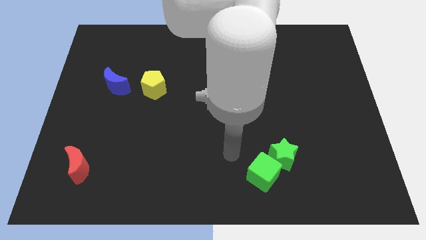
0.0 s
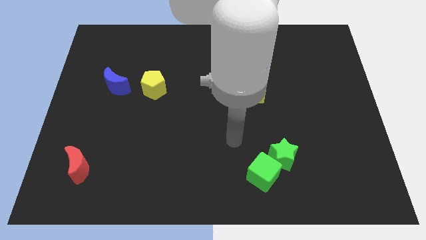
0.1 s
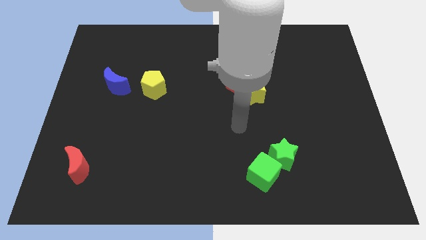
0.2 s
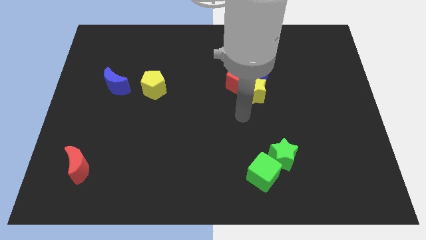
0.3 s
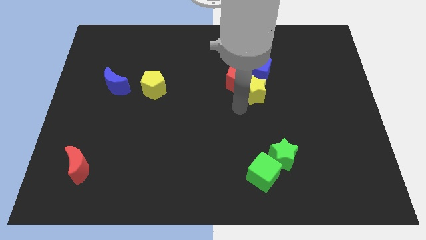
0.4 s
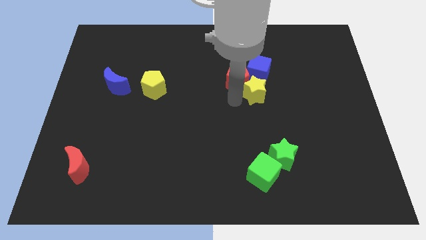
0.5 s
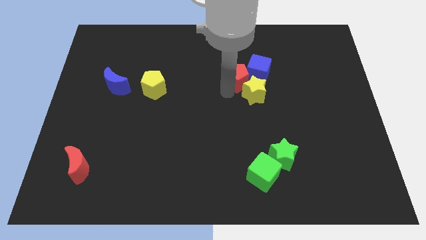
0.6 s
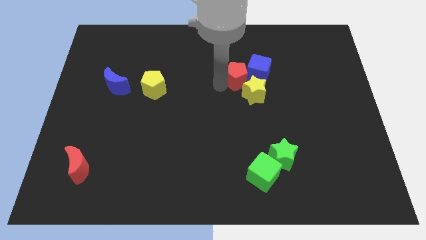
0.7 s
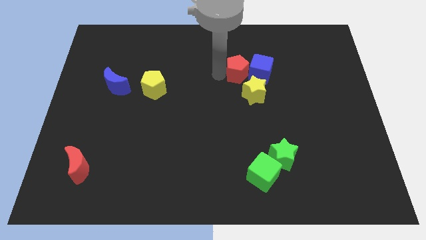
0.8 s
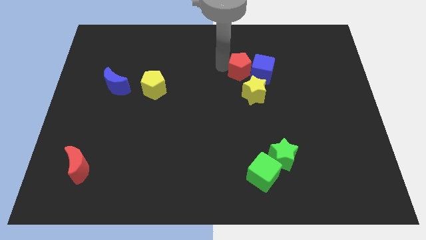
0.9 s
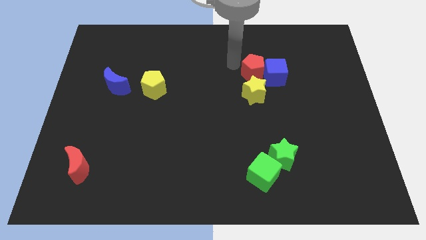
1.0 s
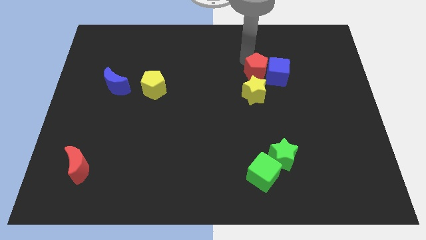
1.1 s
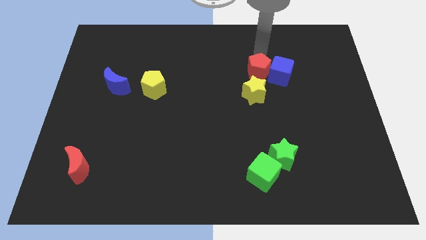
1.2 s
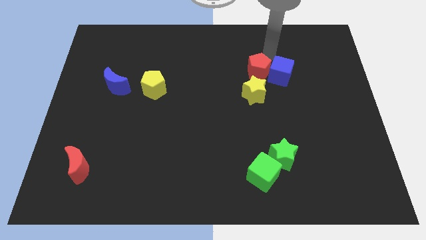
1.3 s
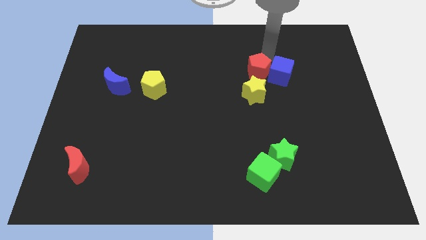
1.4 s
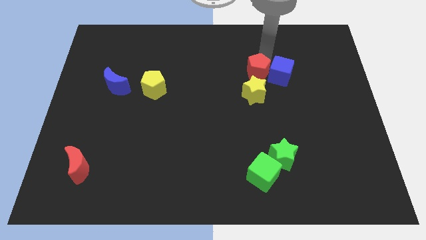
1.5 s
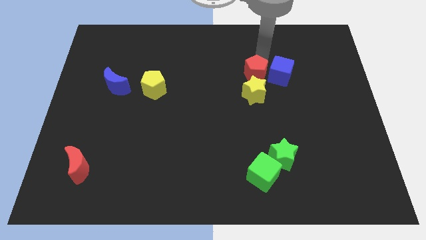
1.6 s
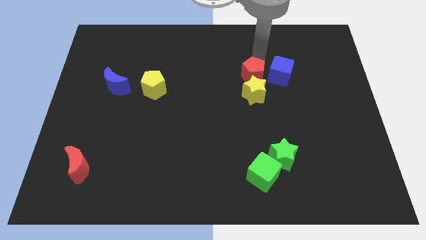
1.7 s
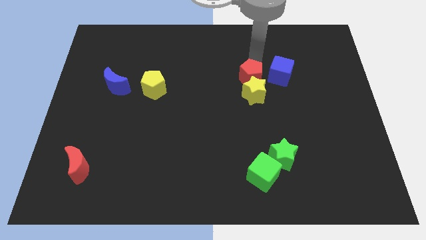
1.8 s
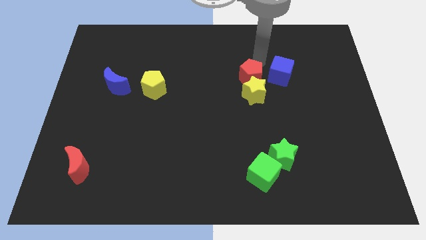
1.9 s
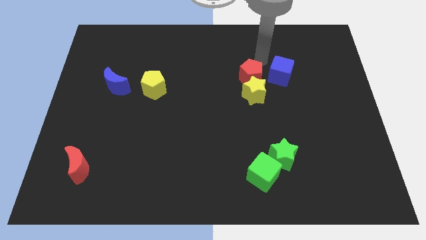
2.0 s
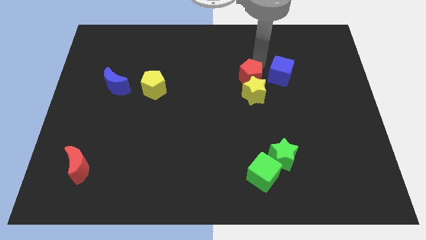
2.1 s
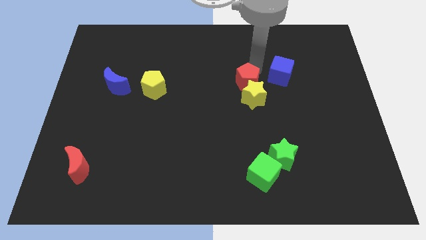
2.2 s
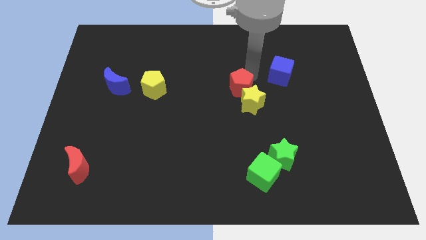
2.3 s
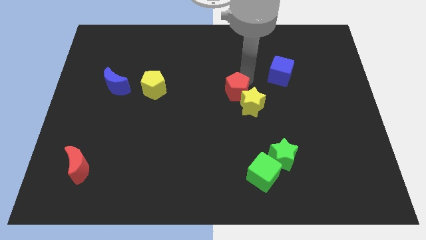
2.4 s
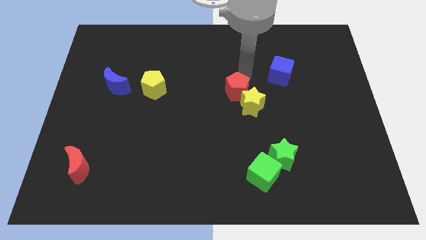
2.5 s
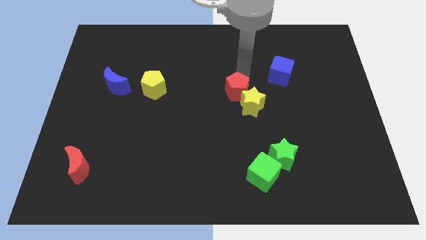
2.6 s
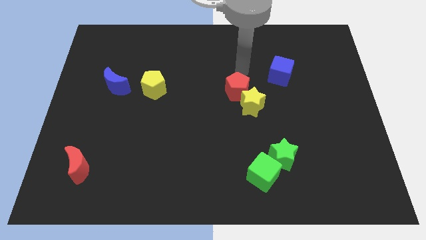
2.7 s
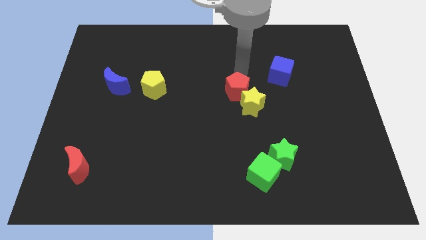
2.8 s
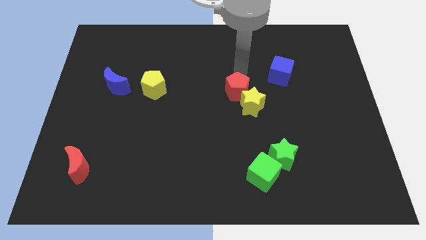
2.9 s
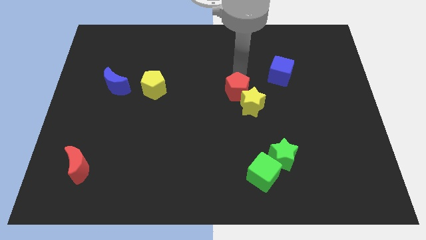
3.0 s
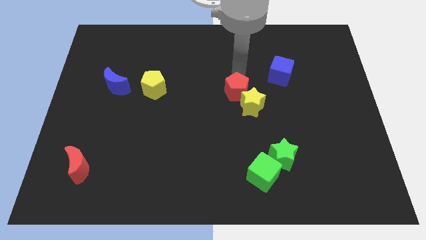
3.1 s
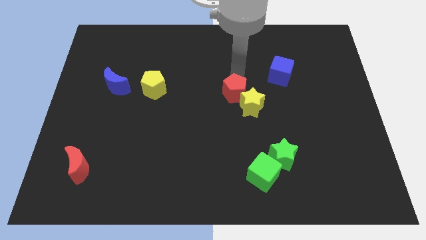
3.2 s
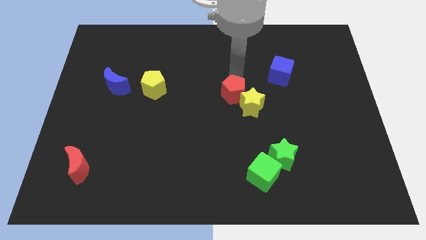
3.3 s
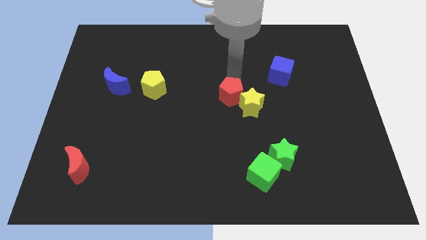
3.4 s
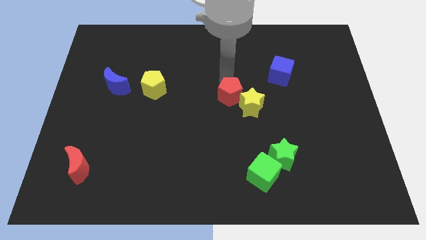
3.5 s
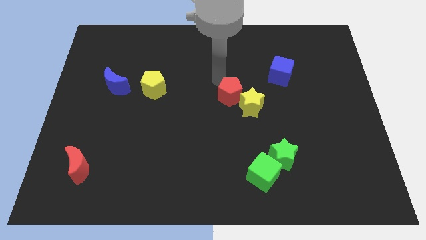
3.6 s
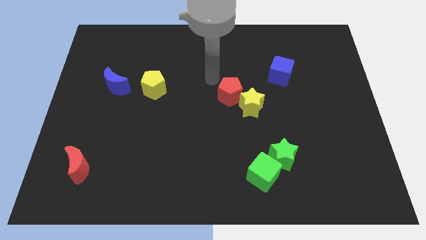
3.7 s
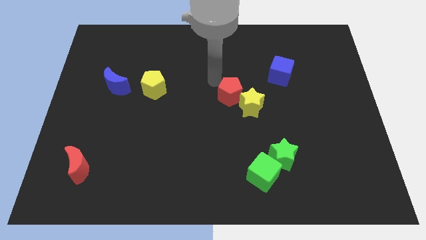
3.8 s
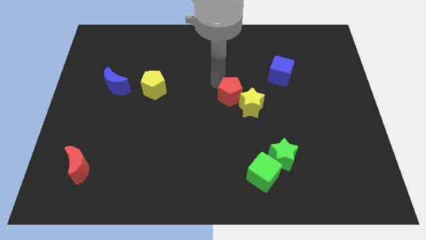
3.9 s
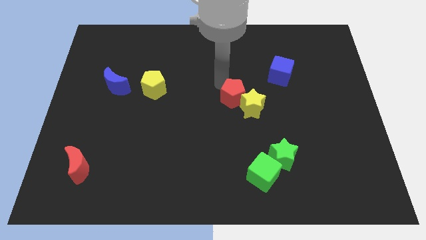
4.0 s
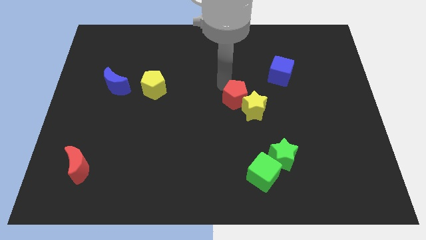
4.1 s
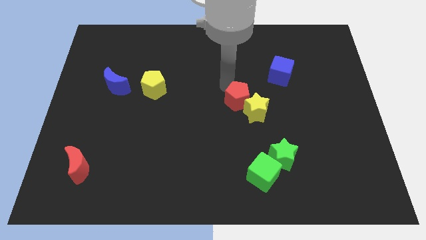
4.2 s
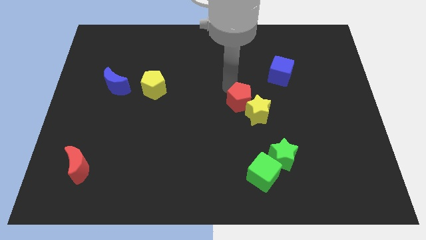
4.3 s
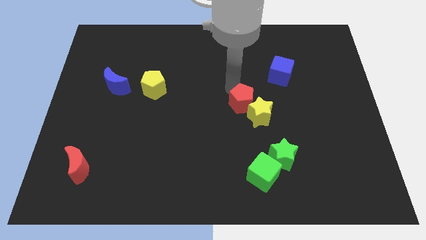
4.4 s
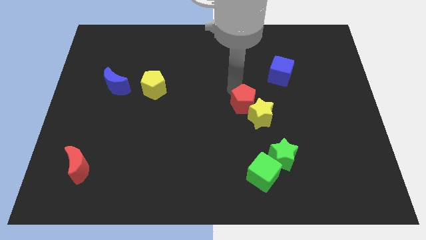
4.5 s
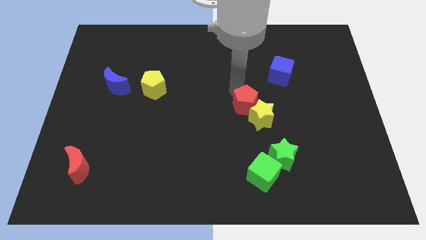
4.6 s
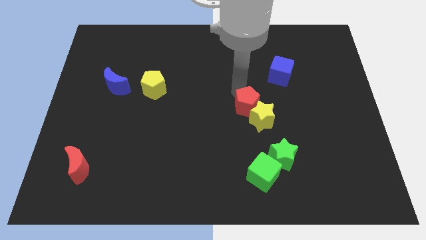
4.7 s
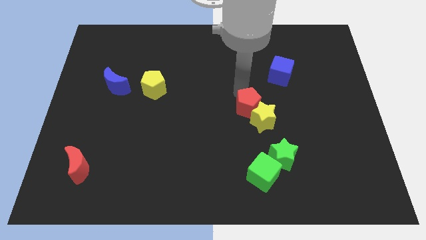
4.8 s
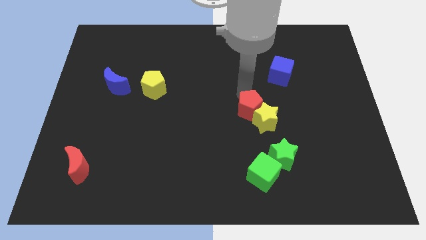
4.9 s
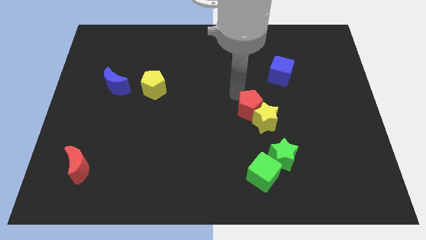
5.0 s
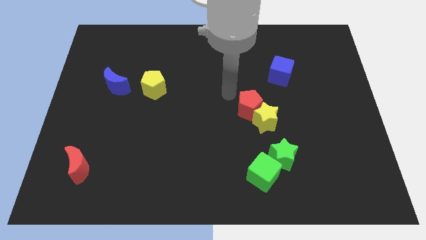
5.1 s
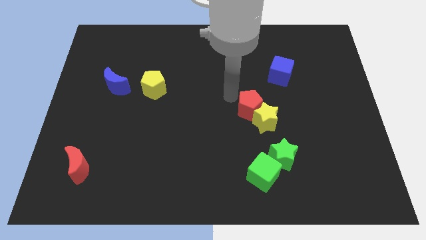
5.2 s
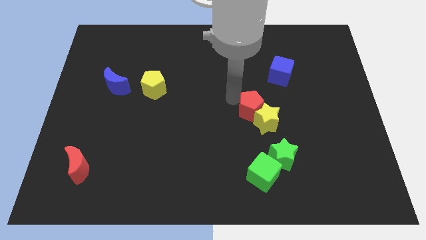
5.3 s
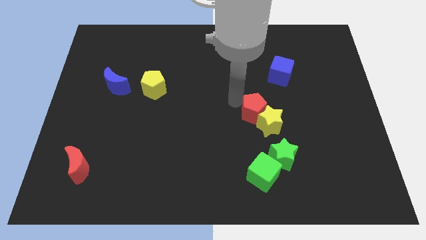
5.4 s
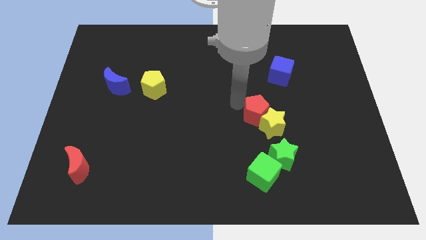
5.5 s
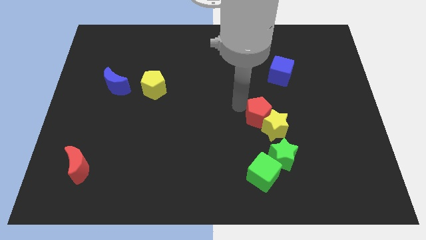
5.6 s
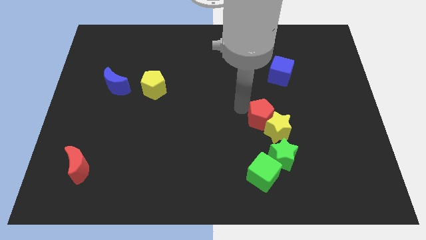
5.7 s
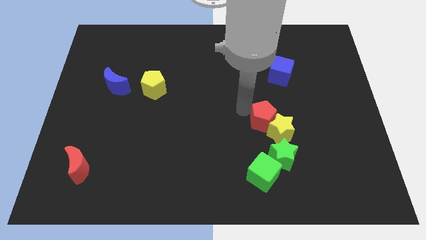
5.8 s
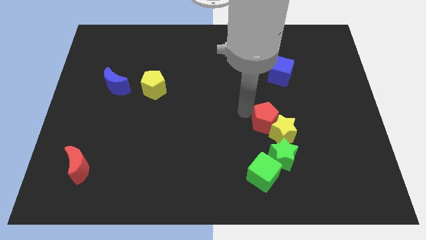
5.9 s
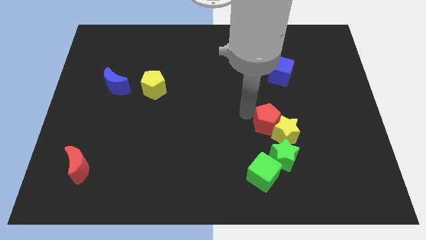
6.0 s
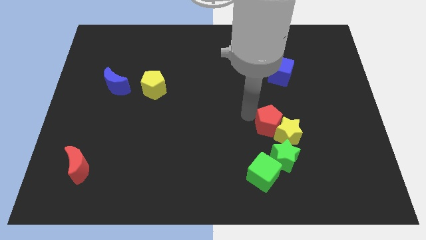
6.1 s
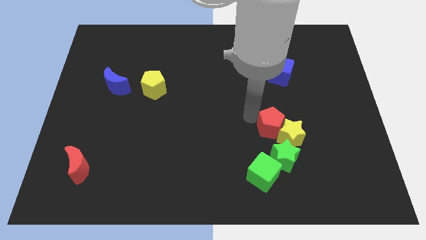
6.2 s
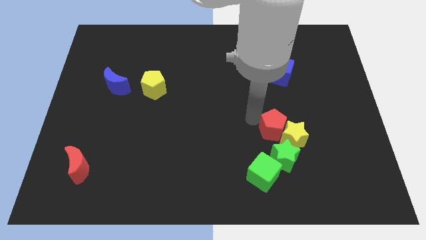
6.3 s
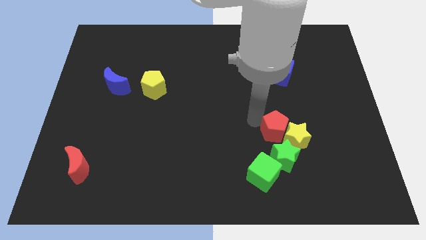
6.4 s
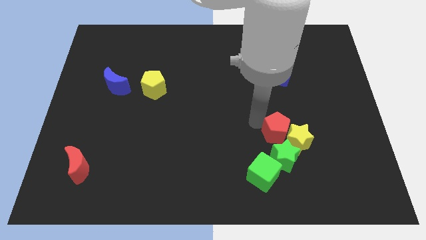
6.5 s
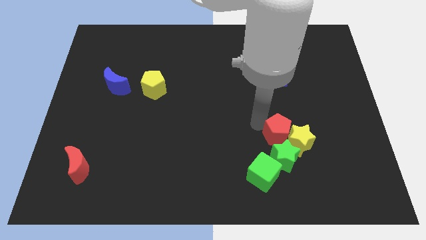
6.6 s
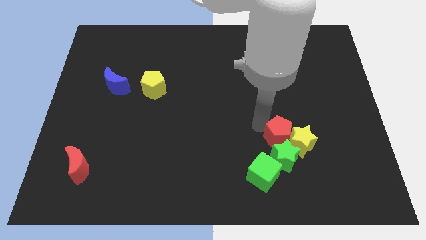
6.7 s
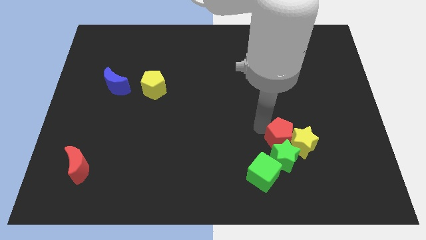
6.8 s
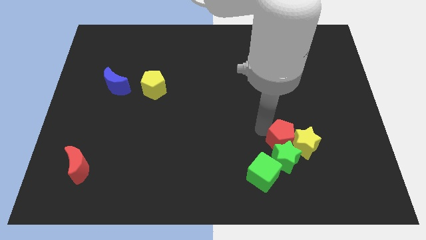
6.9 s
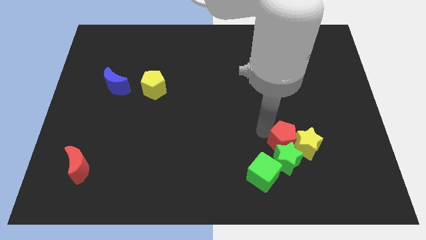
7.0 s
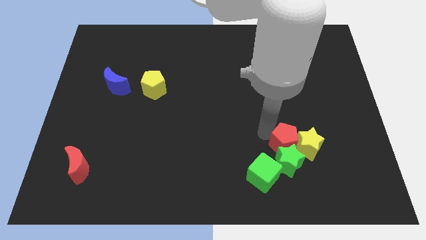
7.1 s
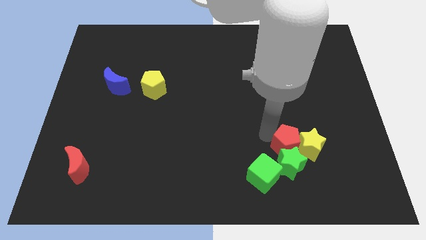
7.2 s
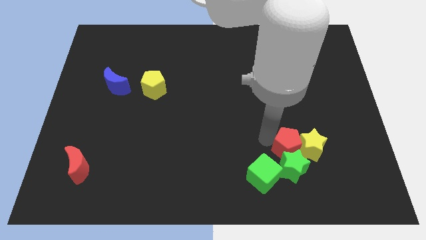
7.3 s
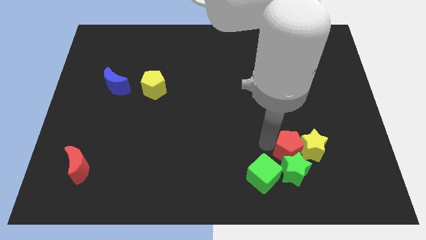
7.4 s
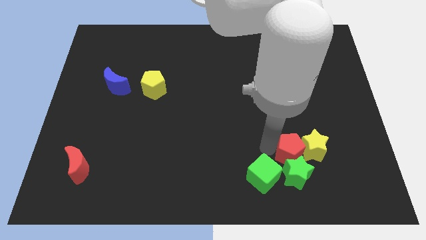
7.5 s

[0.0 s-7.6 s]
push the red pentagon downwards and then right

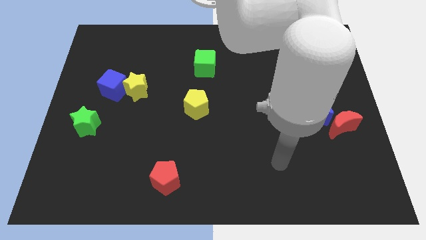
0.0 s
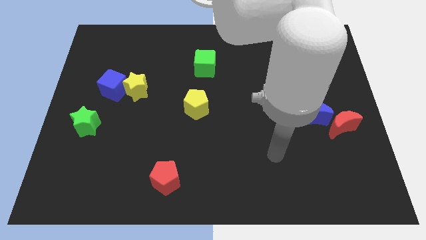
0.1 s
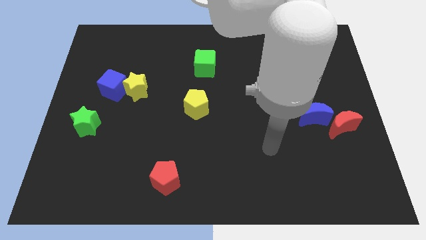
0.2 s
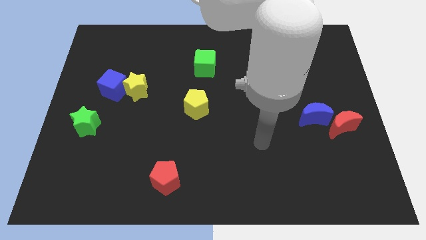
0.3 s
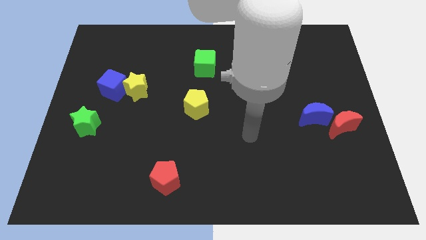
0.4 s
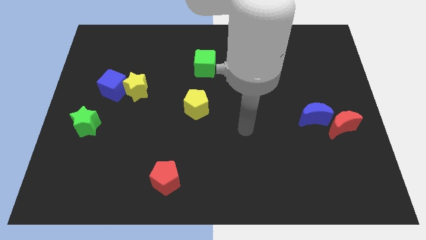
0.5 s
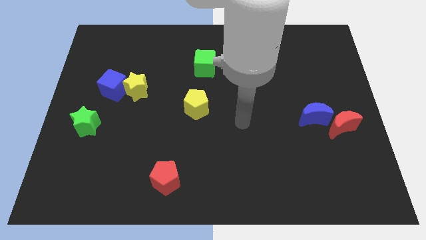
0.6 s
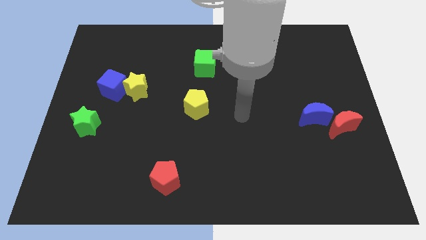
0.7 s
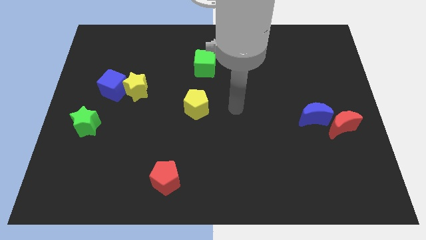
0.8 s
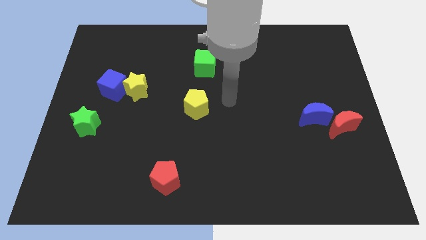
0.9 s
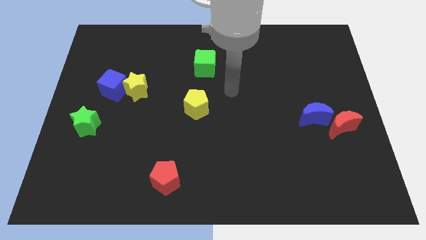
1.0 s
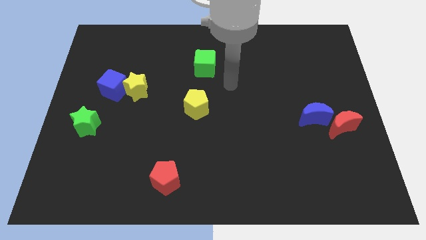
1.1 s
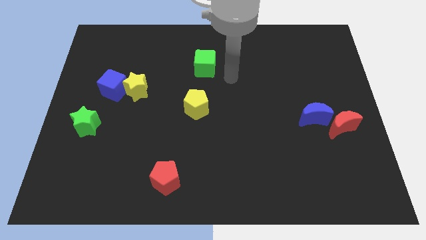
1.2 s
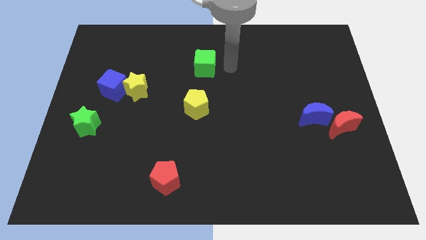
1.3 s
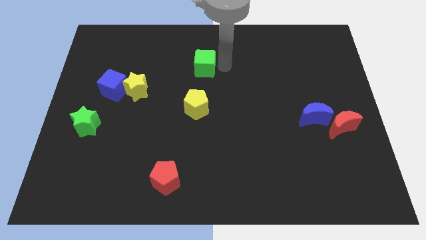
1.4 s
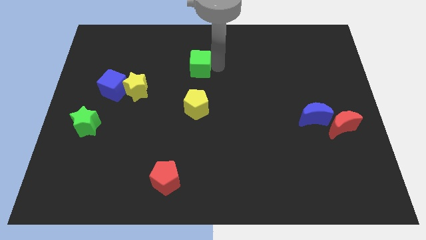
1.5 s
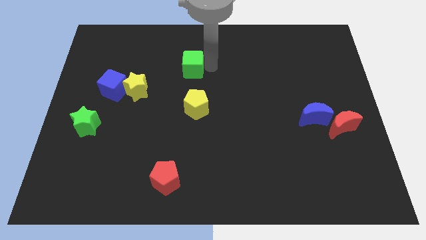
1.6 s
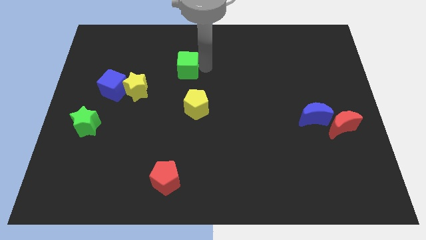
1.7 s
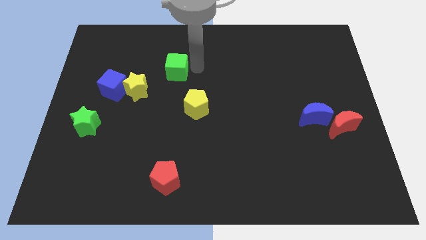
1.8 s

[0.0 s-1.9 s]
push the green cube a little bit to the left
